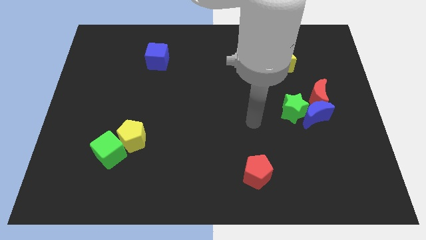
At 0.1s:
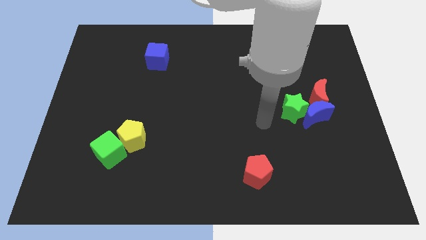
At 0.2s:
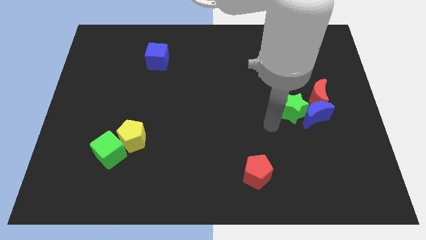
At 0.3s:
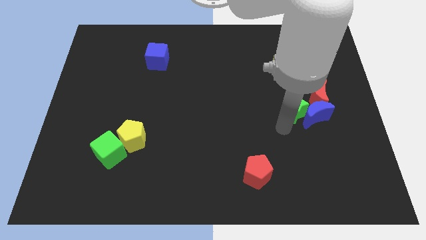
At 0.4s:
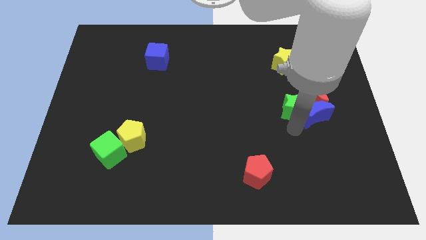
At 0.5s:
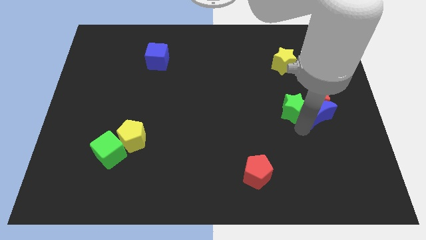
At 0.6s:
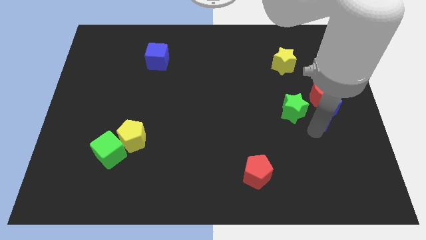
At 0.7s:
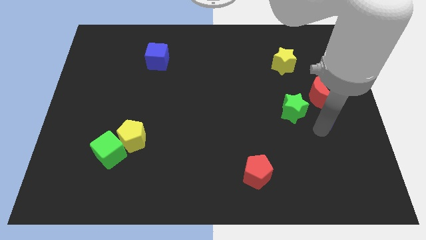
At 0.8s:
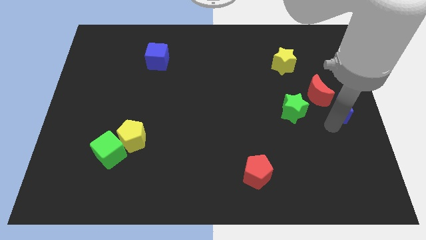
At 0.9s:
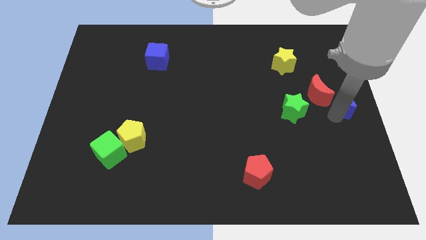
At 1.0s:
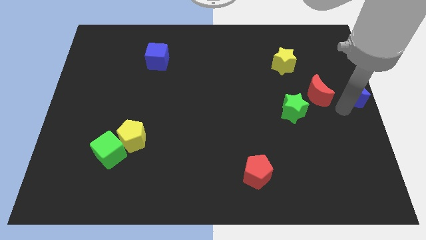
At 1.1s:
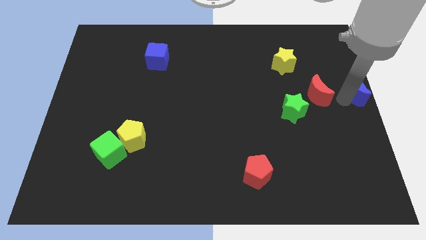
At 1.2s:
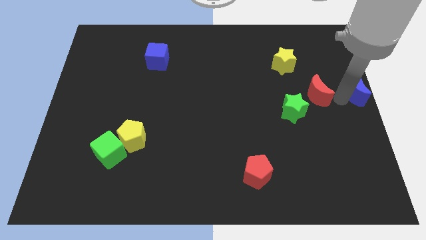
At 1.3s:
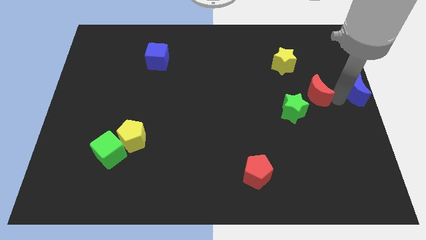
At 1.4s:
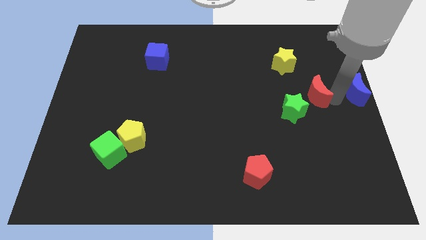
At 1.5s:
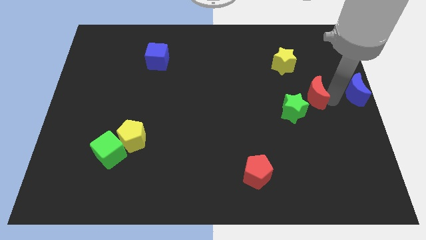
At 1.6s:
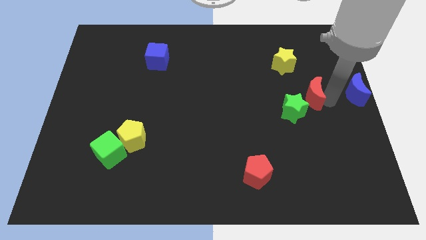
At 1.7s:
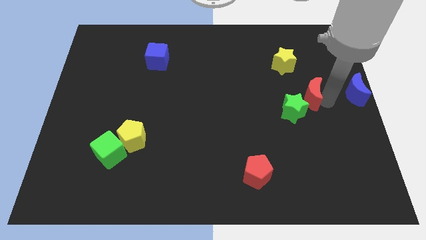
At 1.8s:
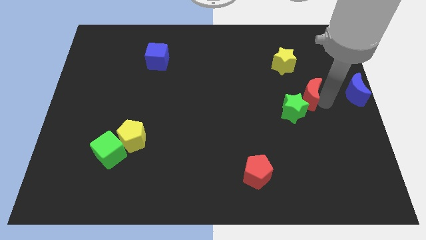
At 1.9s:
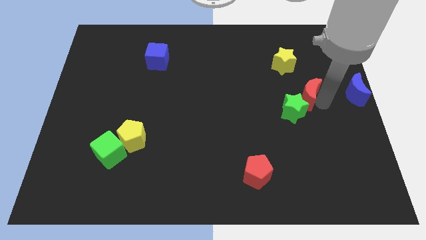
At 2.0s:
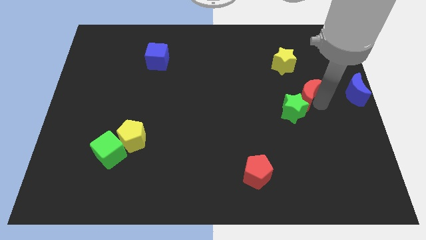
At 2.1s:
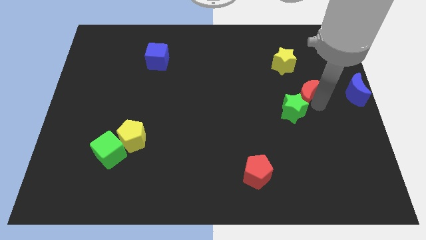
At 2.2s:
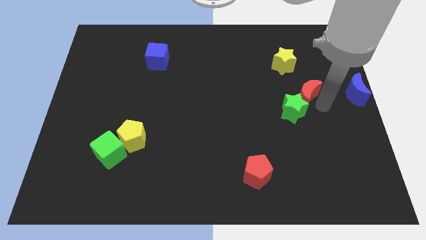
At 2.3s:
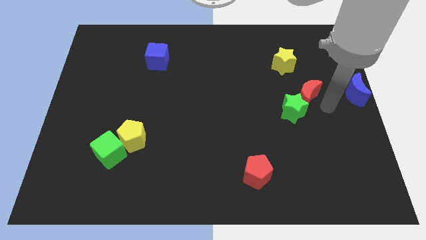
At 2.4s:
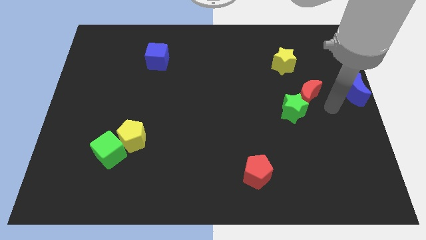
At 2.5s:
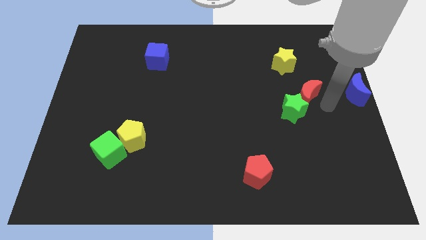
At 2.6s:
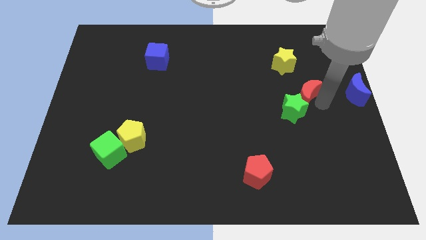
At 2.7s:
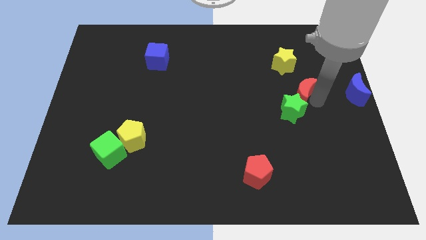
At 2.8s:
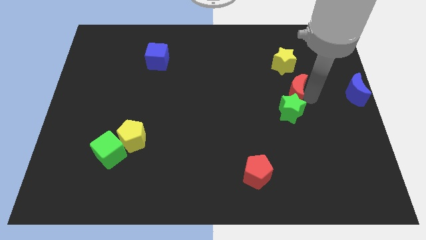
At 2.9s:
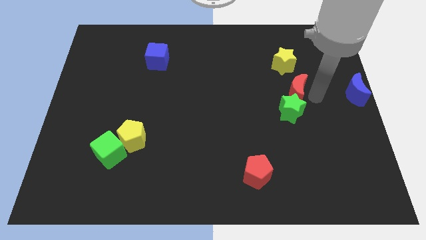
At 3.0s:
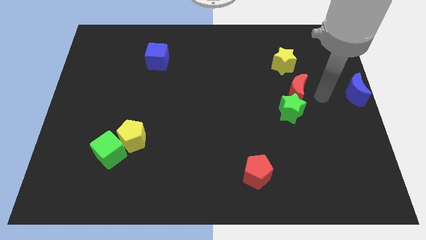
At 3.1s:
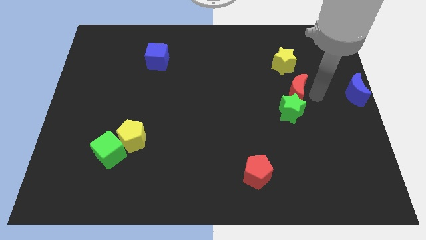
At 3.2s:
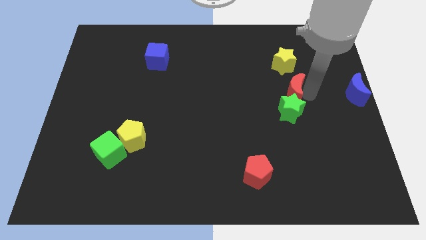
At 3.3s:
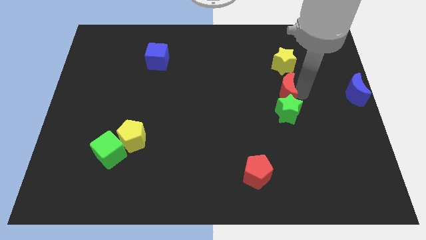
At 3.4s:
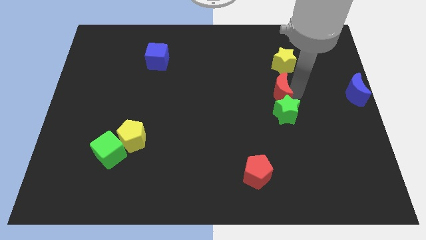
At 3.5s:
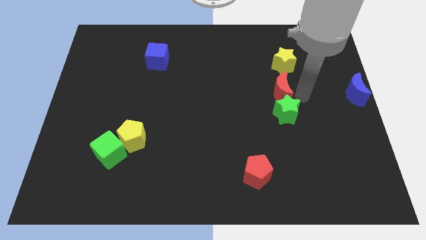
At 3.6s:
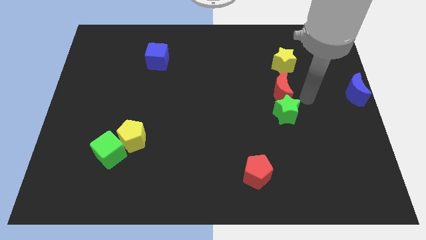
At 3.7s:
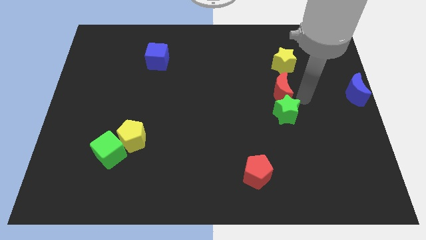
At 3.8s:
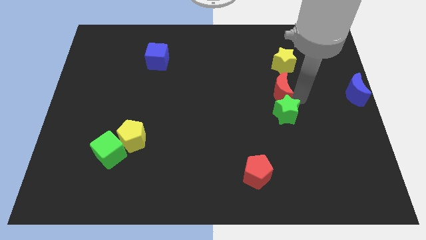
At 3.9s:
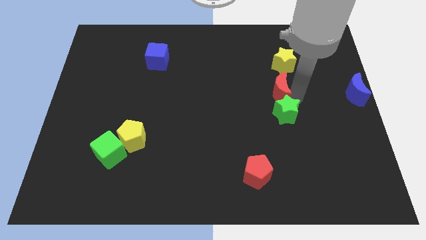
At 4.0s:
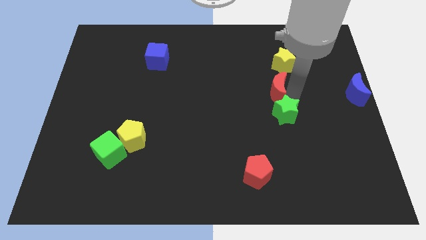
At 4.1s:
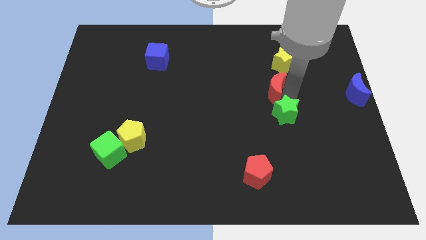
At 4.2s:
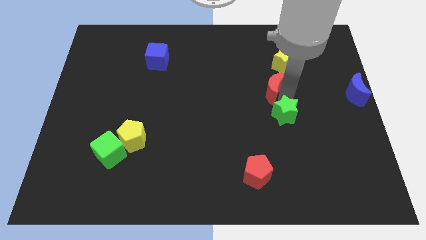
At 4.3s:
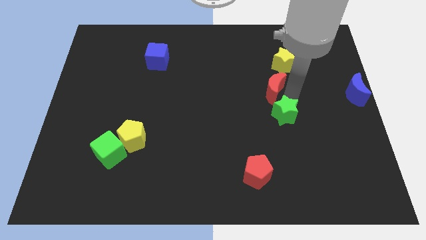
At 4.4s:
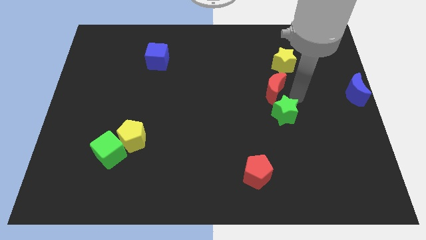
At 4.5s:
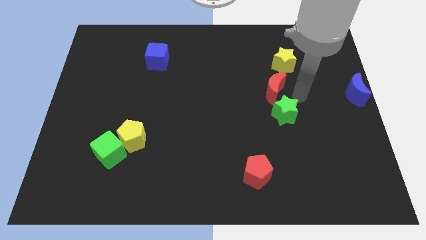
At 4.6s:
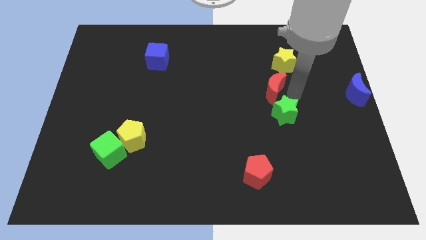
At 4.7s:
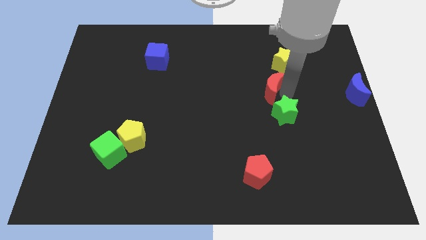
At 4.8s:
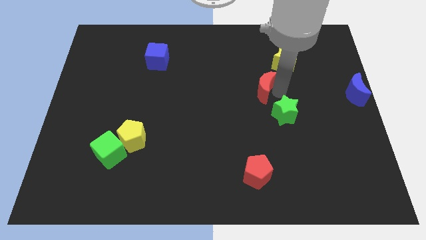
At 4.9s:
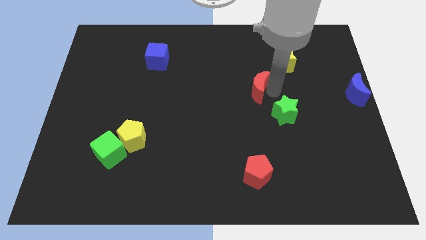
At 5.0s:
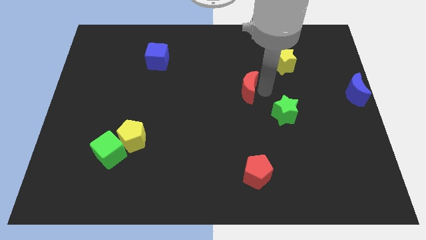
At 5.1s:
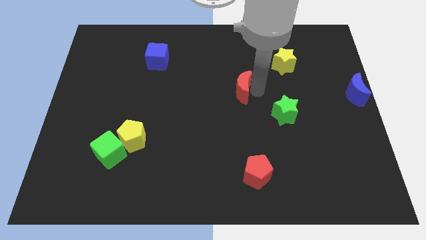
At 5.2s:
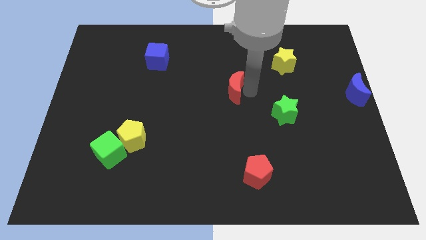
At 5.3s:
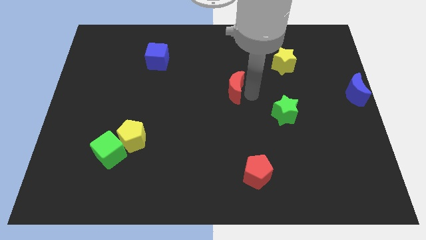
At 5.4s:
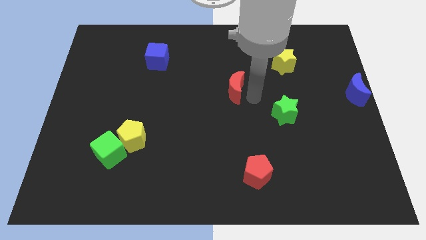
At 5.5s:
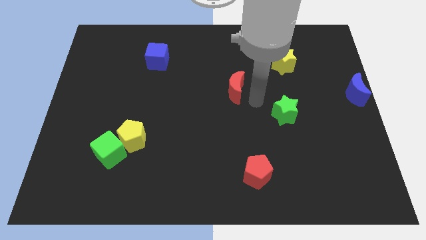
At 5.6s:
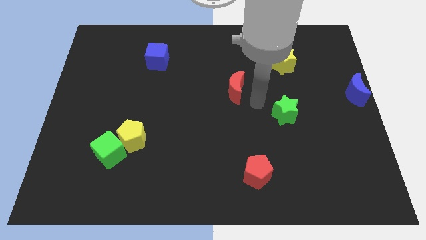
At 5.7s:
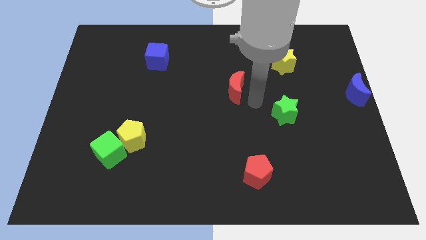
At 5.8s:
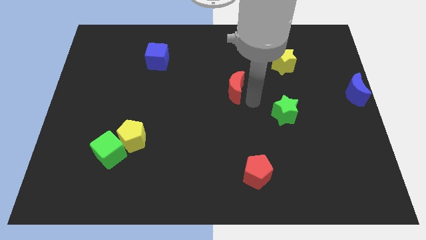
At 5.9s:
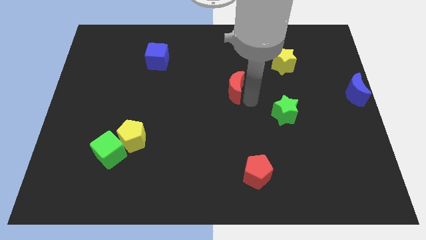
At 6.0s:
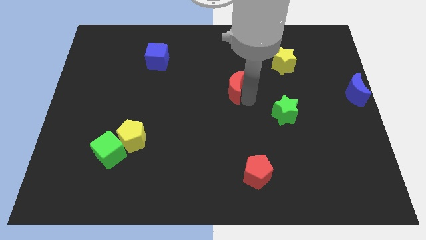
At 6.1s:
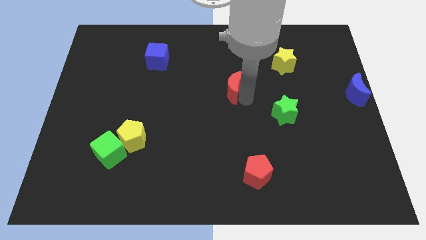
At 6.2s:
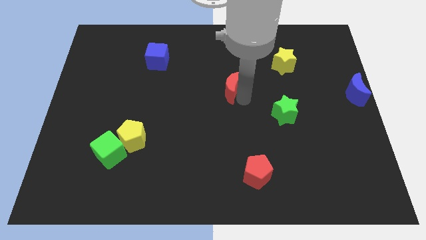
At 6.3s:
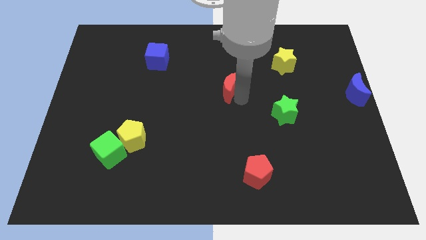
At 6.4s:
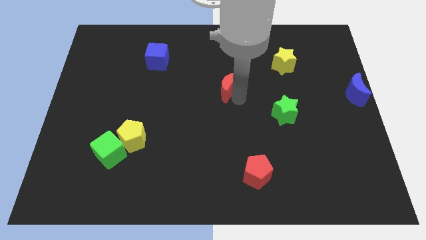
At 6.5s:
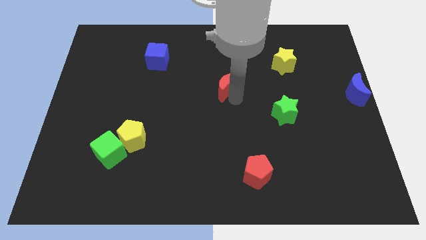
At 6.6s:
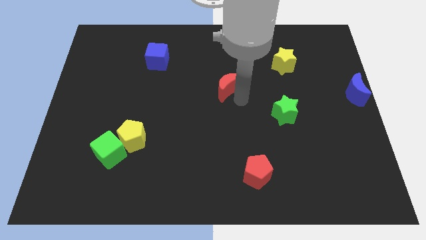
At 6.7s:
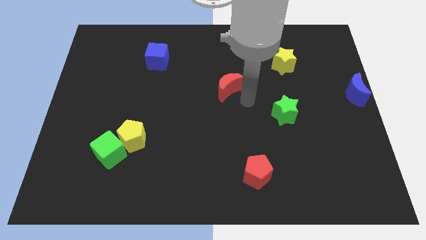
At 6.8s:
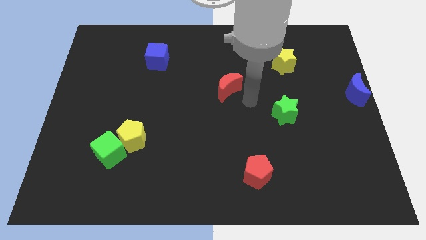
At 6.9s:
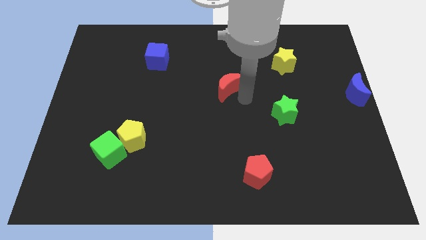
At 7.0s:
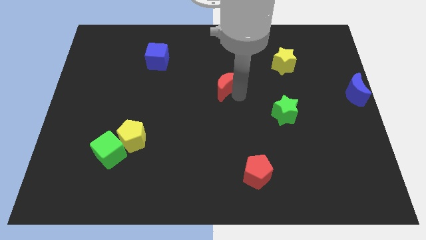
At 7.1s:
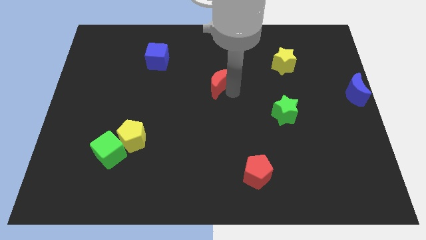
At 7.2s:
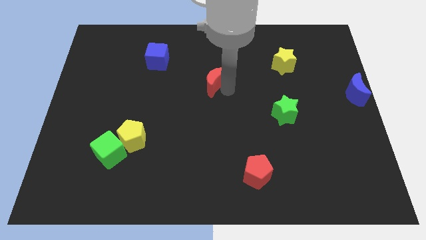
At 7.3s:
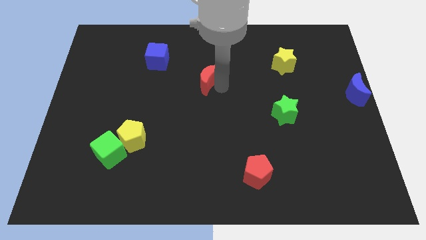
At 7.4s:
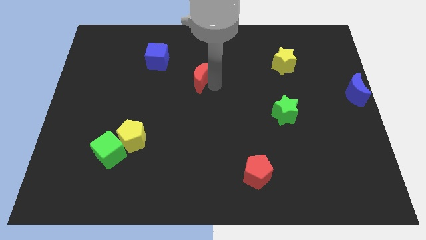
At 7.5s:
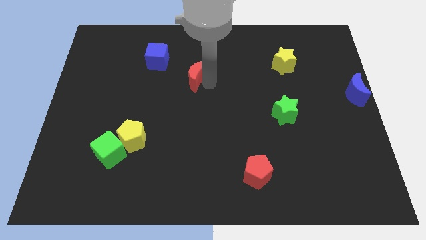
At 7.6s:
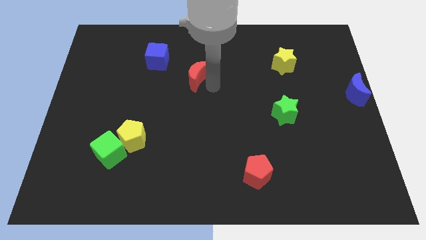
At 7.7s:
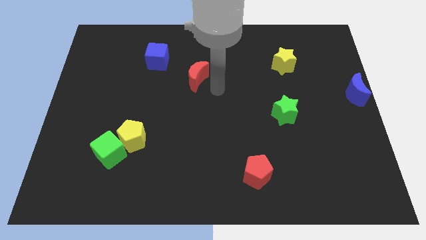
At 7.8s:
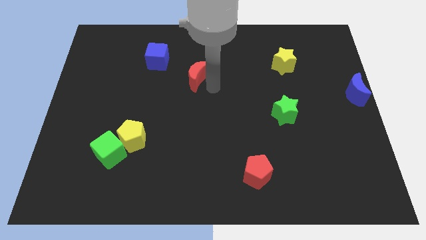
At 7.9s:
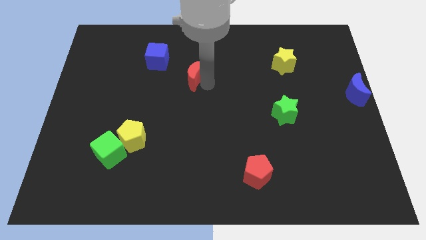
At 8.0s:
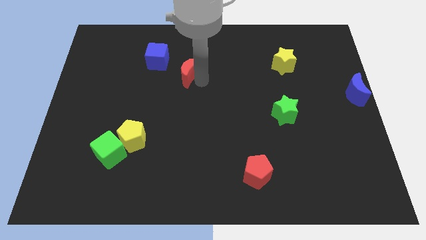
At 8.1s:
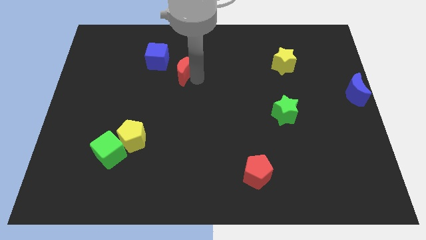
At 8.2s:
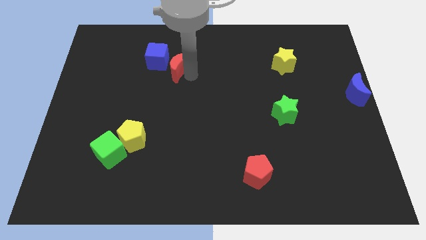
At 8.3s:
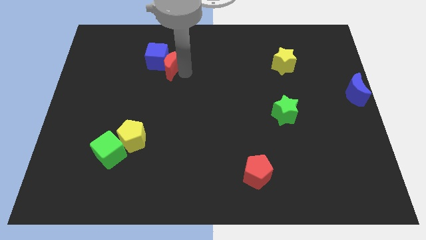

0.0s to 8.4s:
move the red moon next to the blue cube
